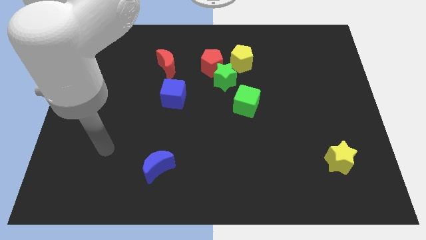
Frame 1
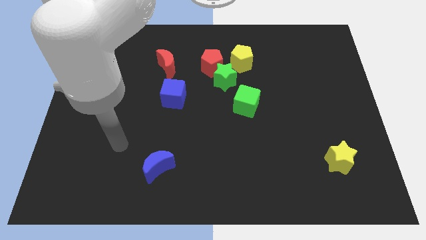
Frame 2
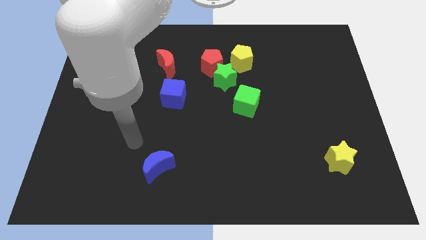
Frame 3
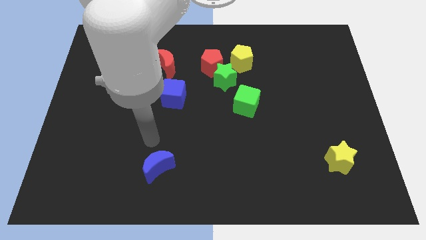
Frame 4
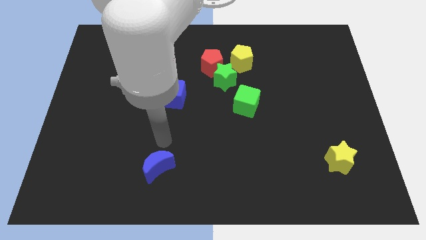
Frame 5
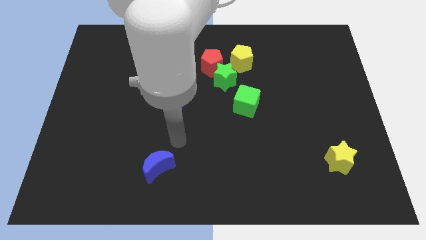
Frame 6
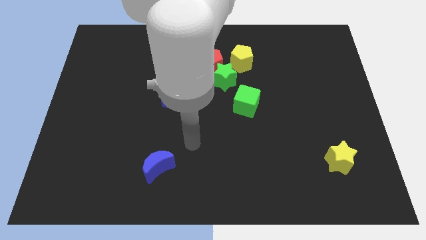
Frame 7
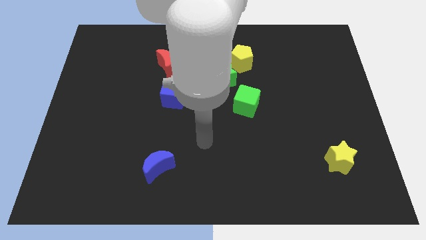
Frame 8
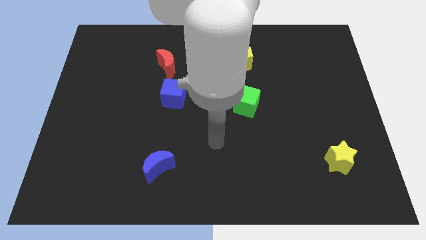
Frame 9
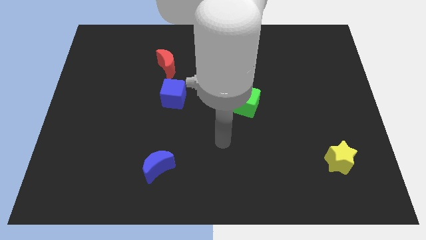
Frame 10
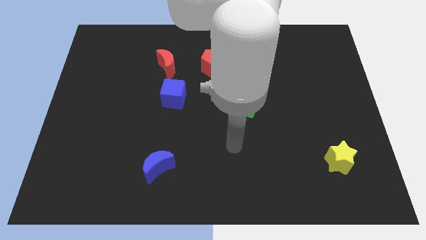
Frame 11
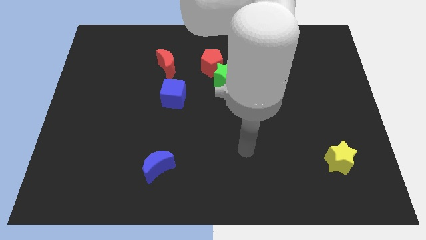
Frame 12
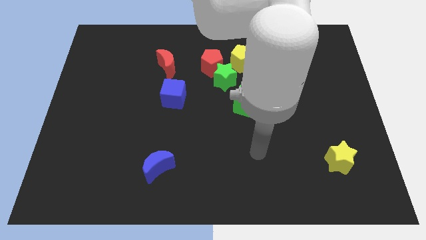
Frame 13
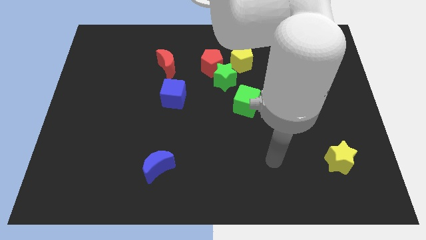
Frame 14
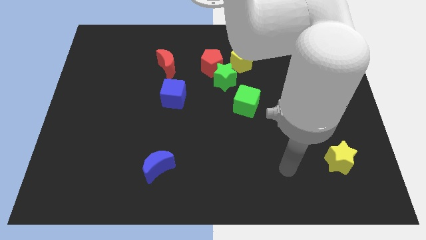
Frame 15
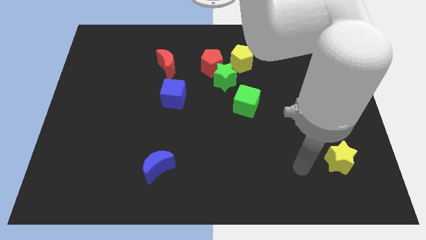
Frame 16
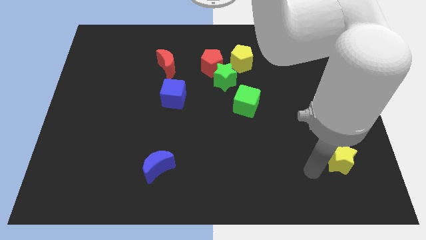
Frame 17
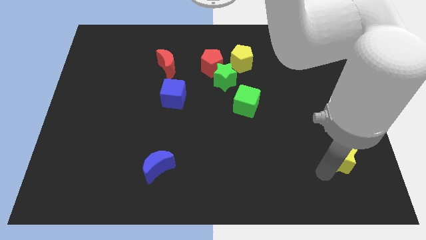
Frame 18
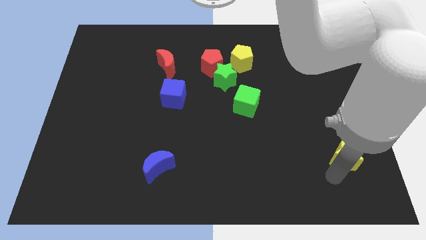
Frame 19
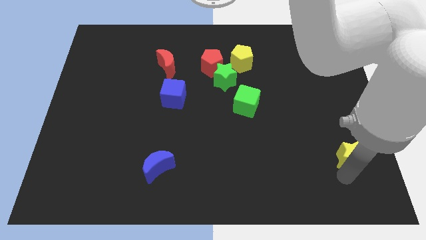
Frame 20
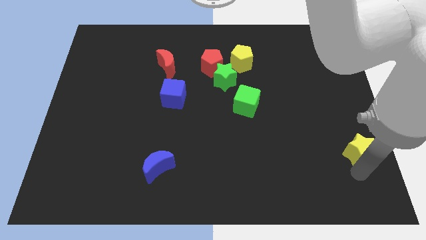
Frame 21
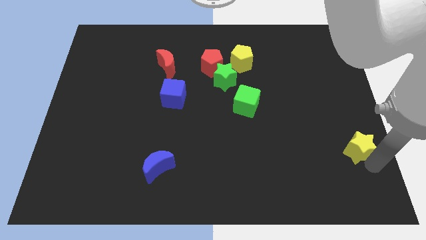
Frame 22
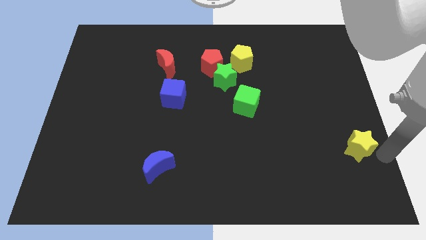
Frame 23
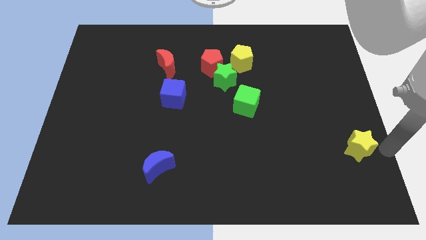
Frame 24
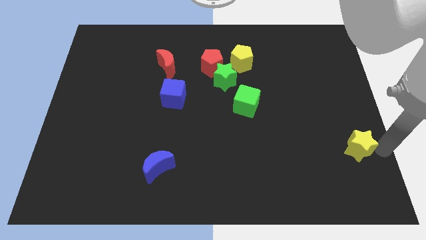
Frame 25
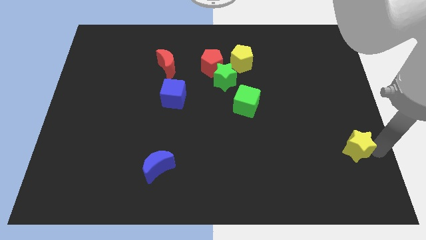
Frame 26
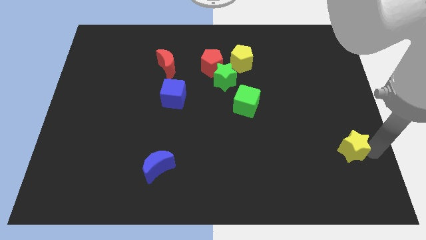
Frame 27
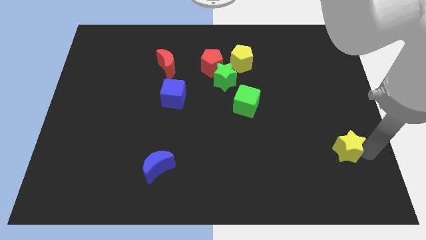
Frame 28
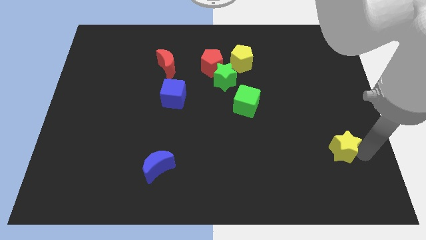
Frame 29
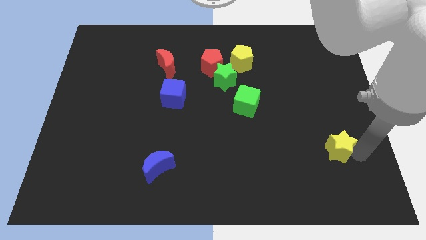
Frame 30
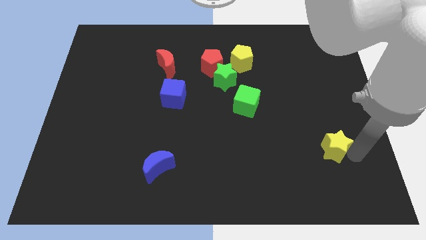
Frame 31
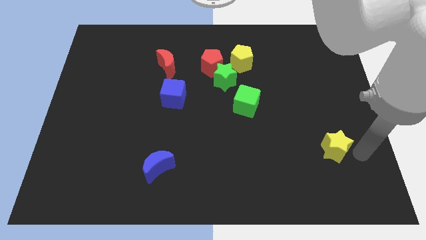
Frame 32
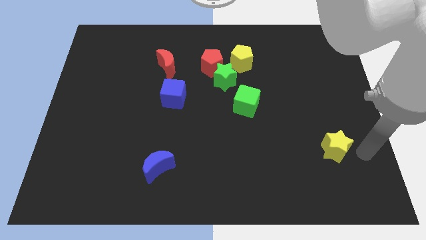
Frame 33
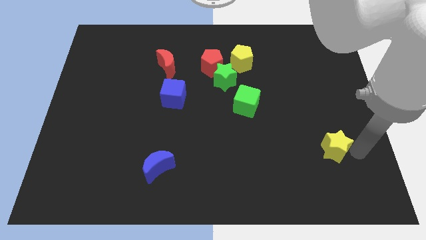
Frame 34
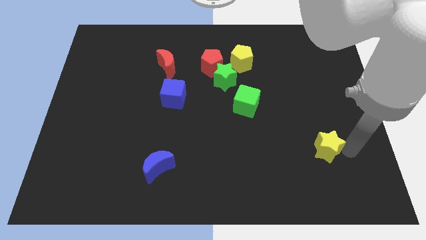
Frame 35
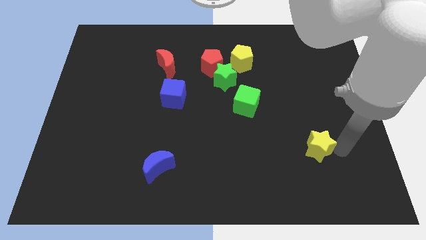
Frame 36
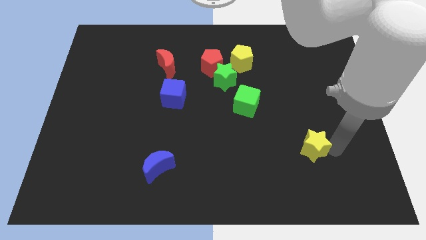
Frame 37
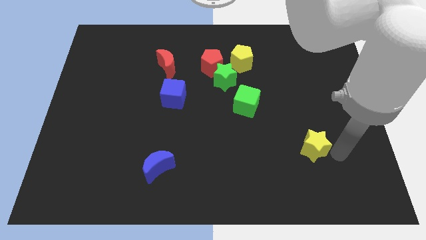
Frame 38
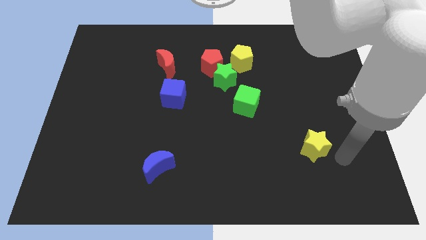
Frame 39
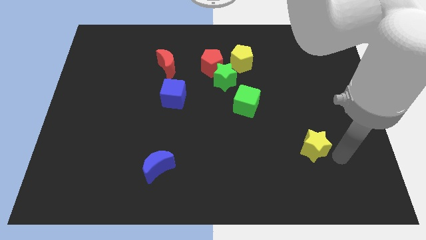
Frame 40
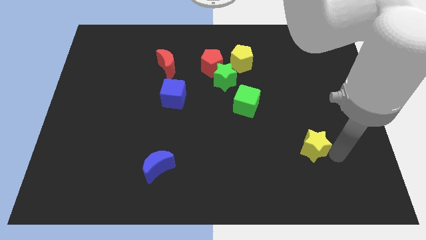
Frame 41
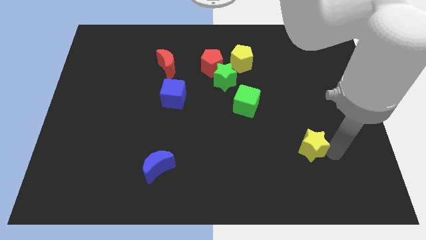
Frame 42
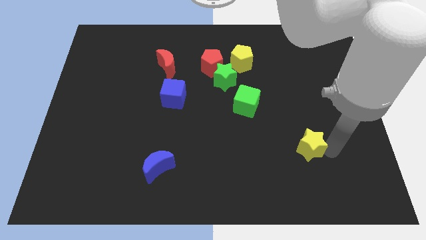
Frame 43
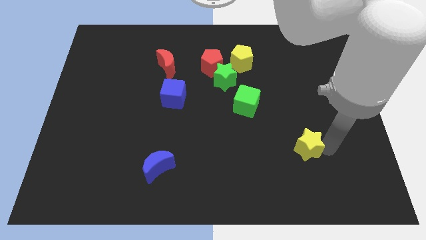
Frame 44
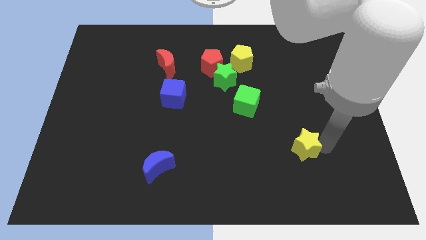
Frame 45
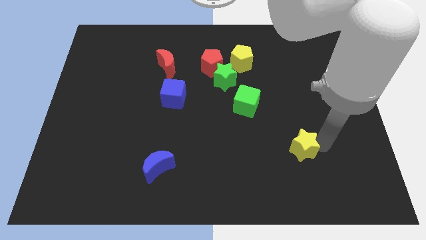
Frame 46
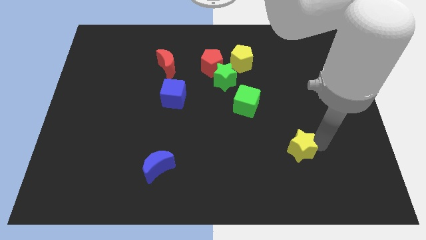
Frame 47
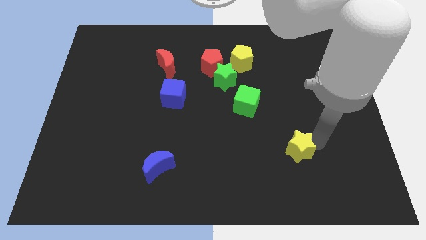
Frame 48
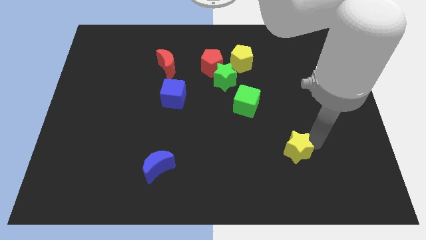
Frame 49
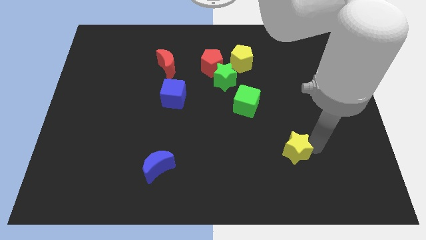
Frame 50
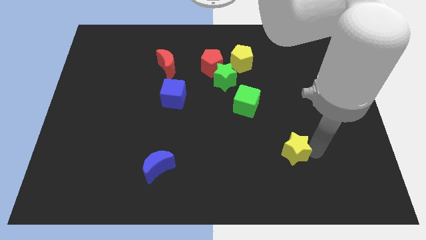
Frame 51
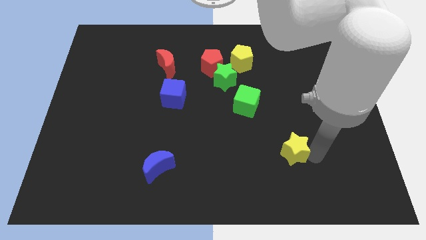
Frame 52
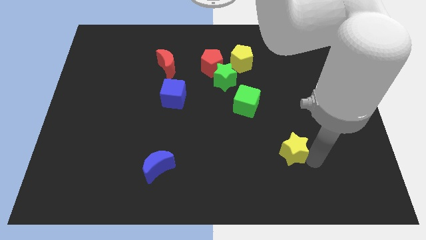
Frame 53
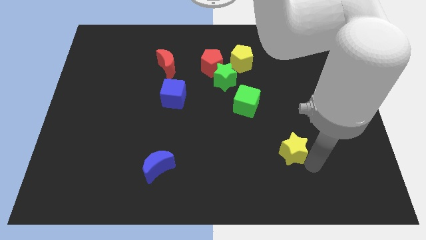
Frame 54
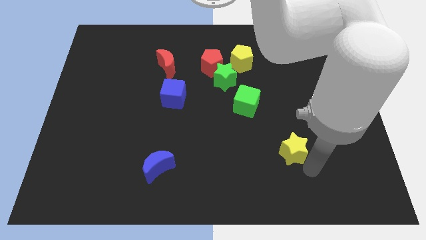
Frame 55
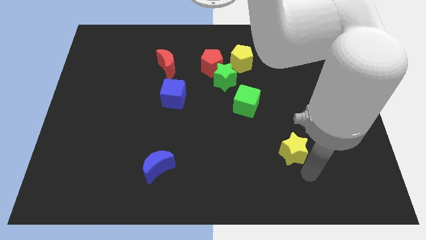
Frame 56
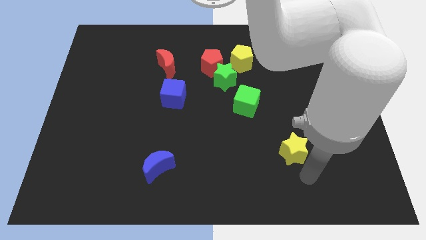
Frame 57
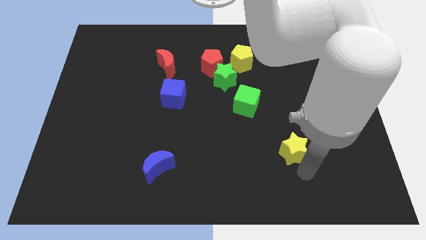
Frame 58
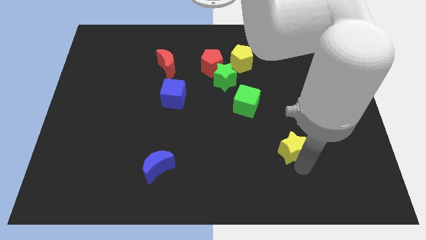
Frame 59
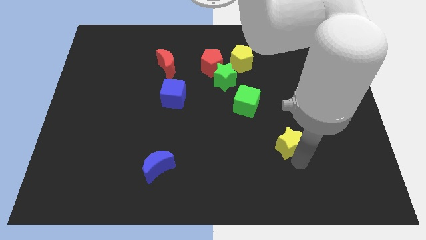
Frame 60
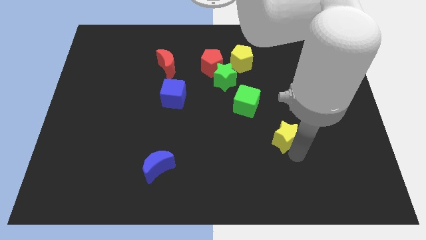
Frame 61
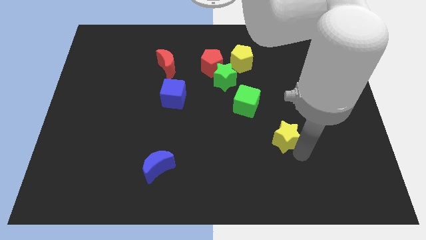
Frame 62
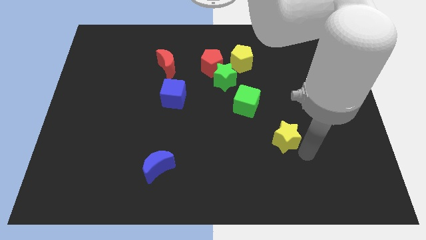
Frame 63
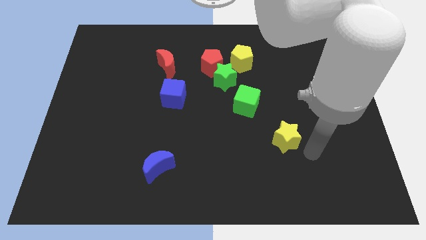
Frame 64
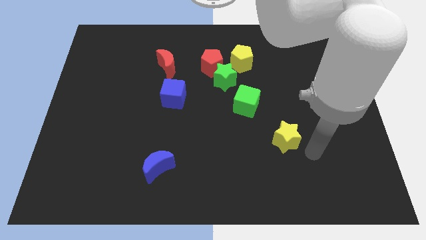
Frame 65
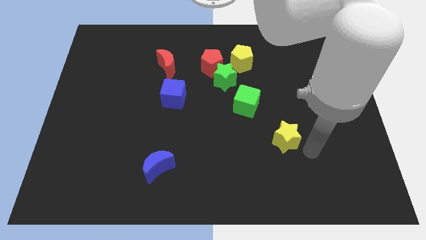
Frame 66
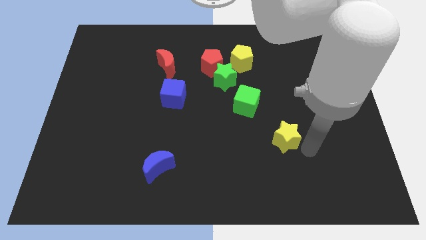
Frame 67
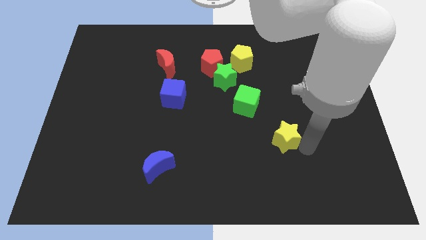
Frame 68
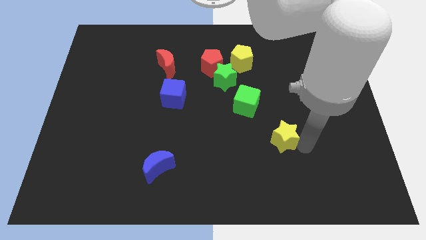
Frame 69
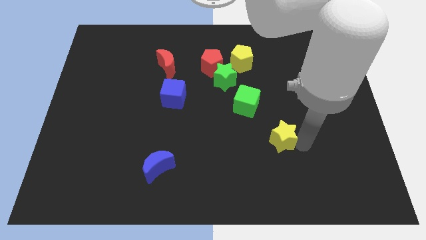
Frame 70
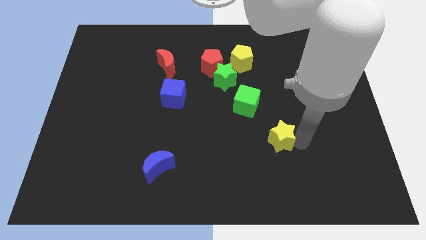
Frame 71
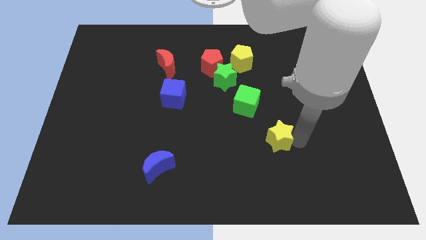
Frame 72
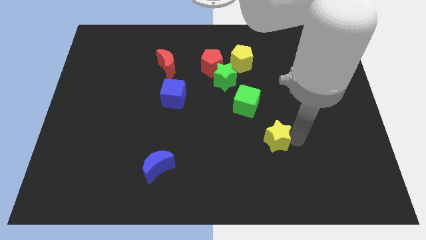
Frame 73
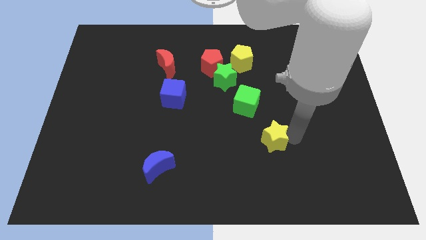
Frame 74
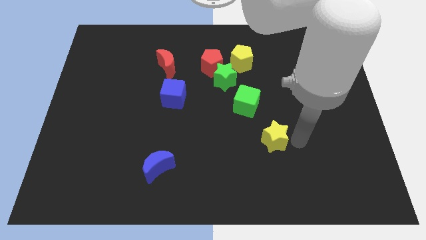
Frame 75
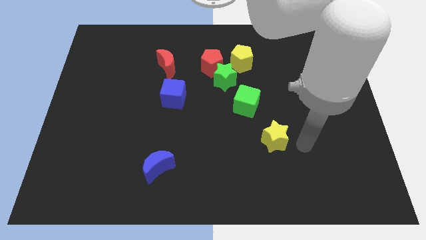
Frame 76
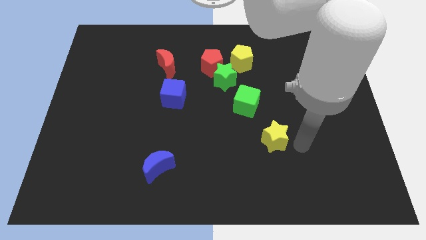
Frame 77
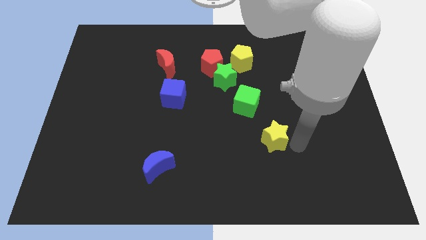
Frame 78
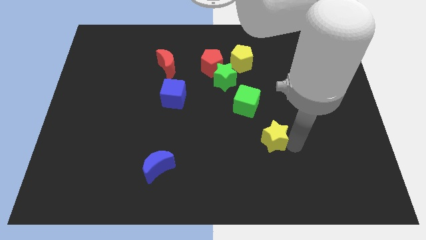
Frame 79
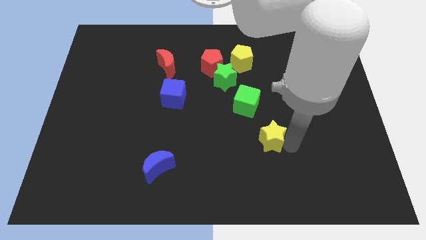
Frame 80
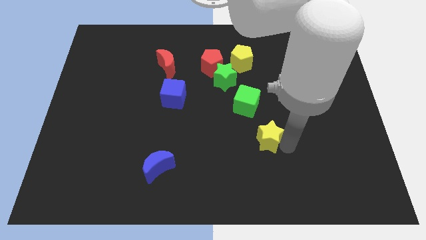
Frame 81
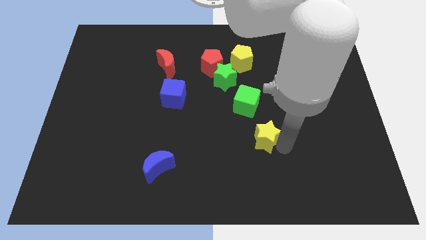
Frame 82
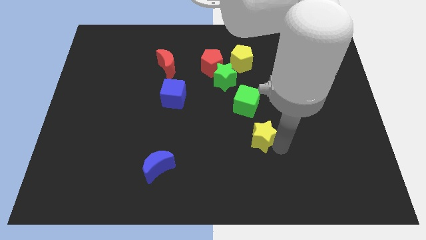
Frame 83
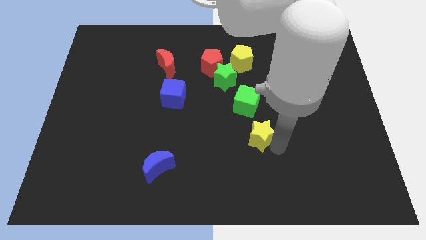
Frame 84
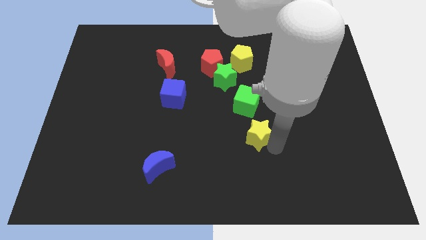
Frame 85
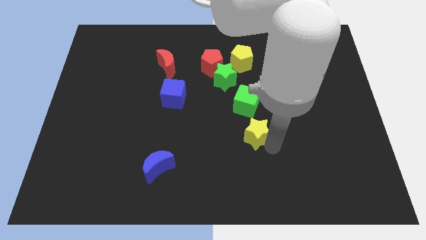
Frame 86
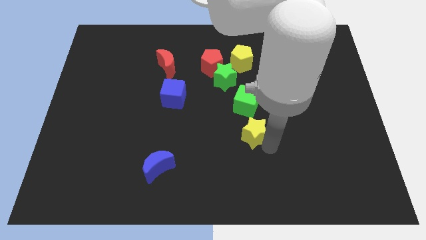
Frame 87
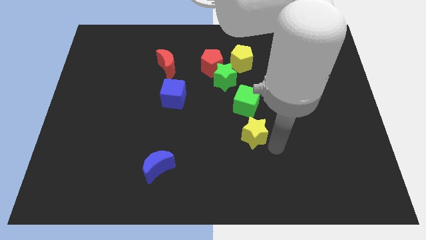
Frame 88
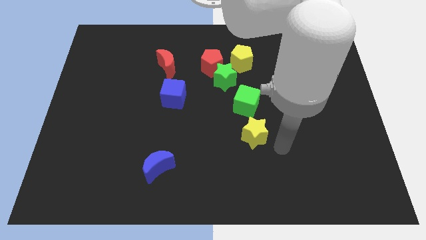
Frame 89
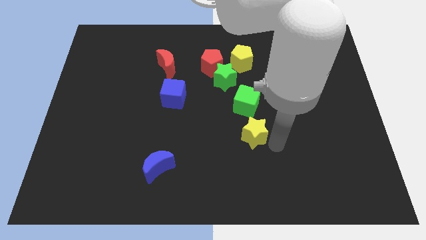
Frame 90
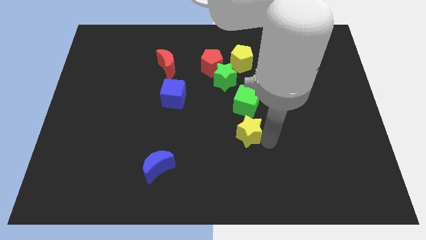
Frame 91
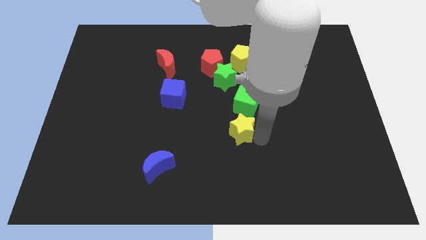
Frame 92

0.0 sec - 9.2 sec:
slide the yellow star diagonally down and to the left of the green cube
